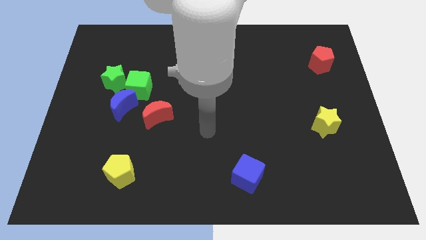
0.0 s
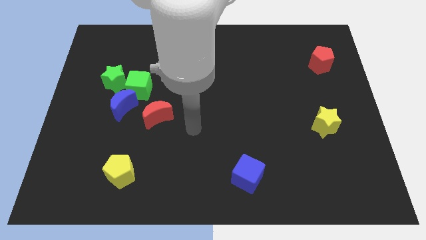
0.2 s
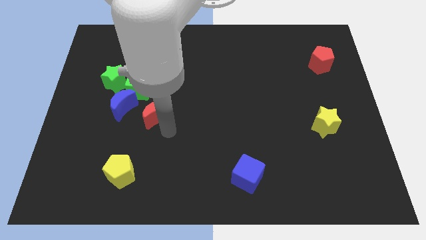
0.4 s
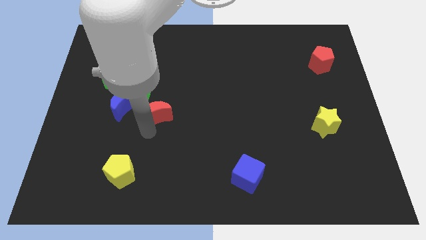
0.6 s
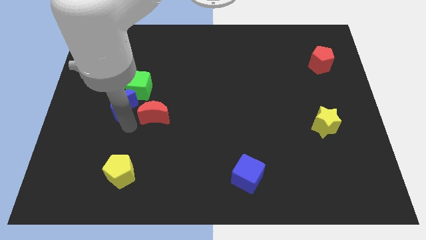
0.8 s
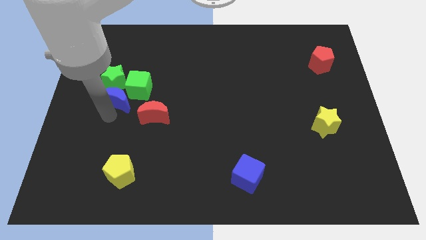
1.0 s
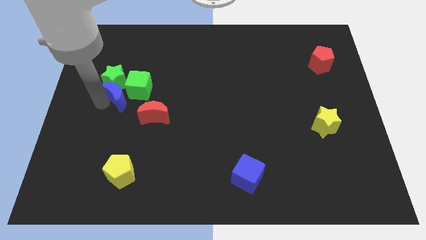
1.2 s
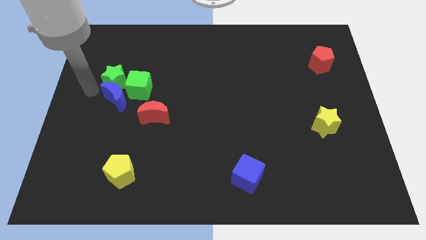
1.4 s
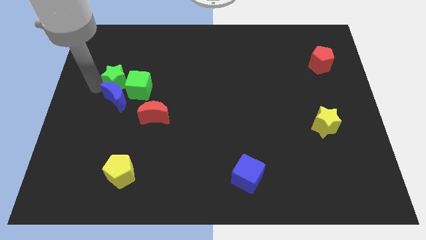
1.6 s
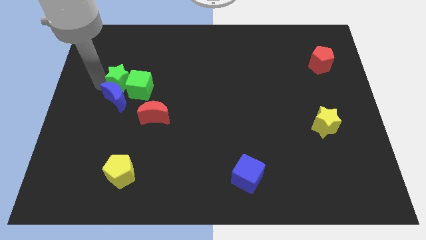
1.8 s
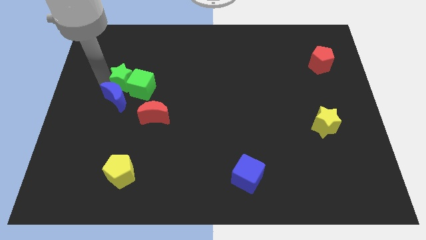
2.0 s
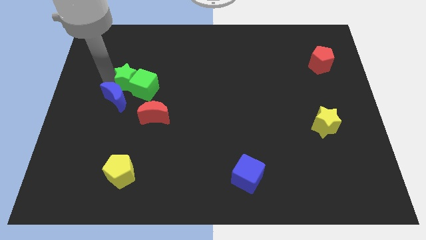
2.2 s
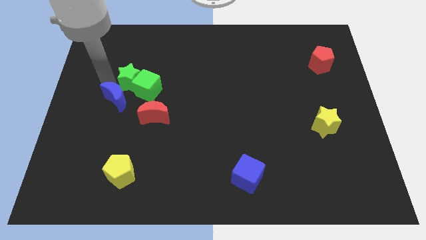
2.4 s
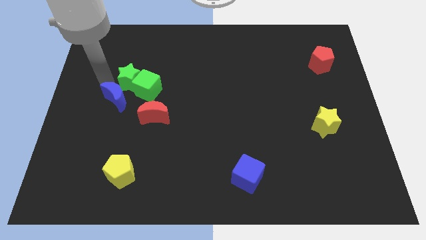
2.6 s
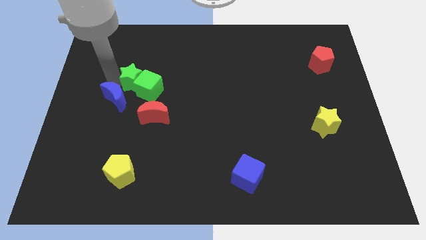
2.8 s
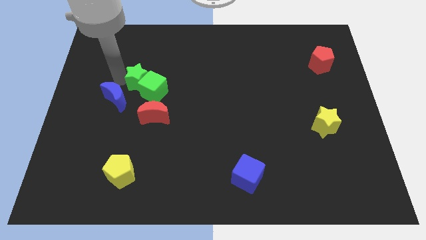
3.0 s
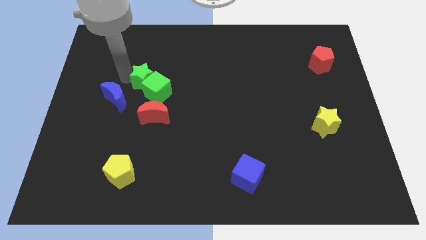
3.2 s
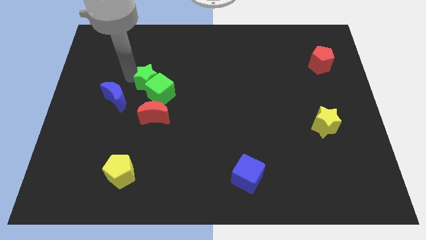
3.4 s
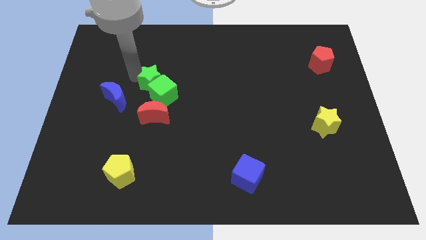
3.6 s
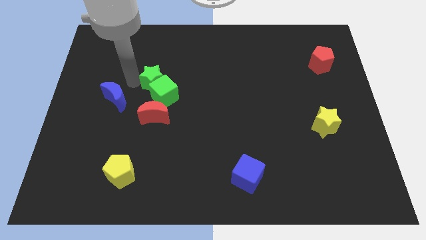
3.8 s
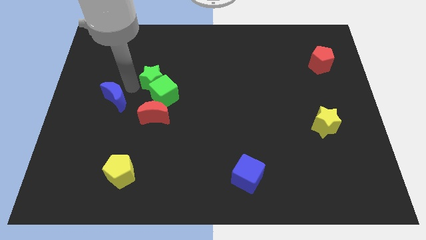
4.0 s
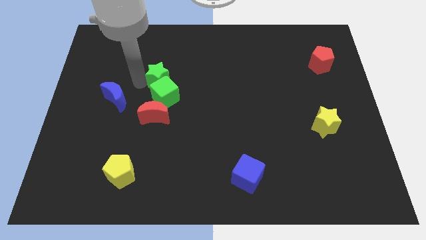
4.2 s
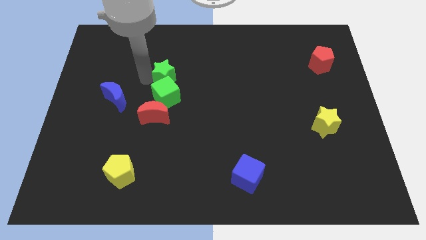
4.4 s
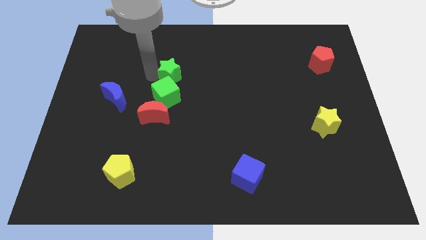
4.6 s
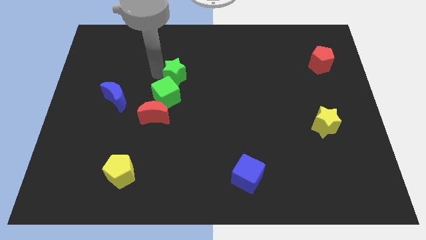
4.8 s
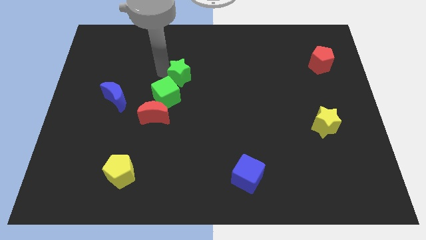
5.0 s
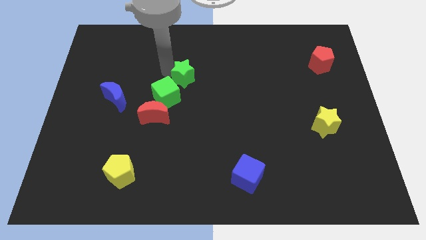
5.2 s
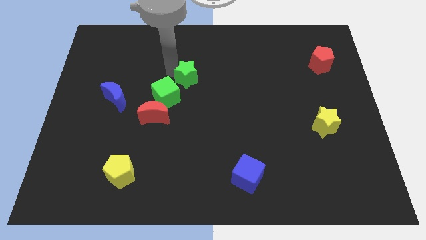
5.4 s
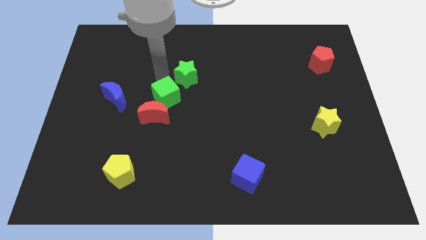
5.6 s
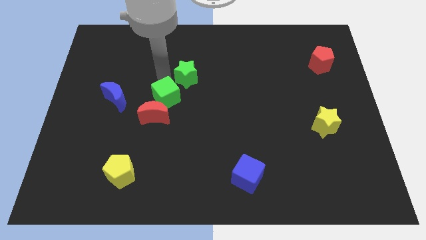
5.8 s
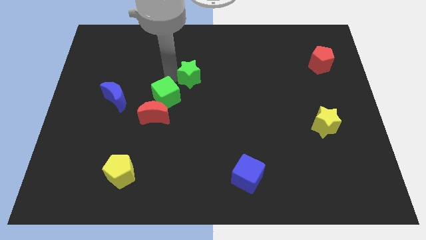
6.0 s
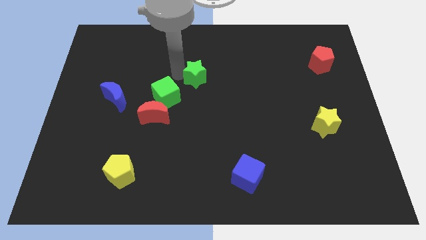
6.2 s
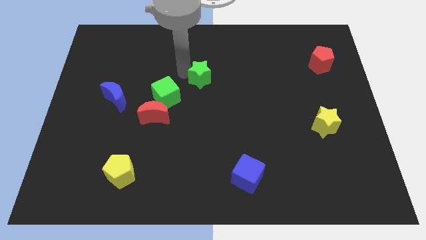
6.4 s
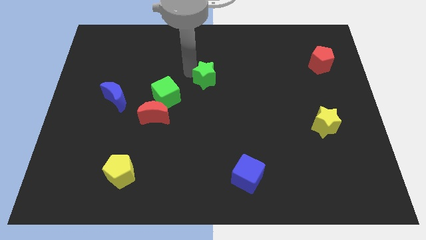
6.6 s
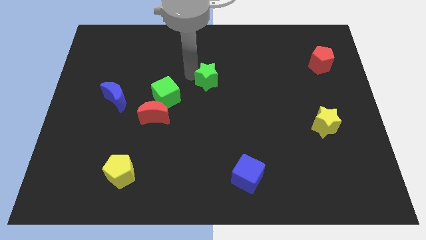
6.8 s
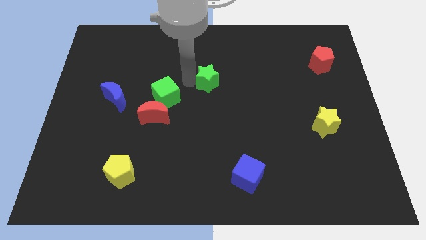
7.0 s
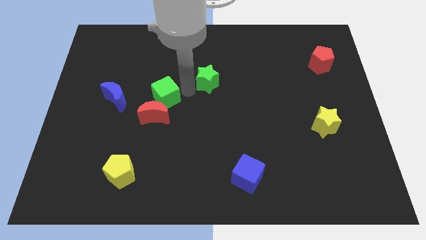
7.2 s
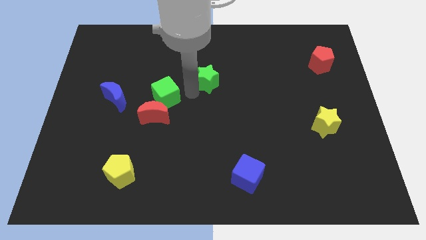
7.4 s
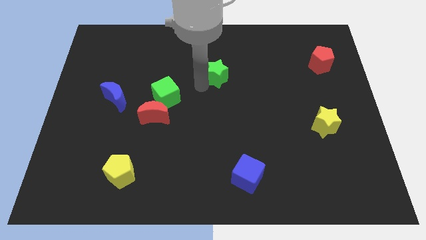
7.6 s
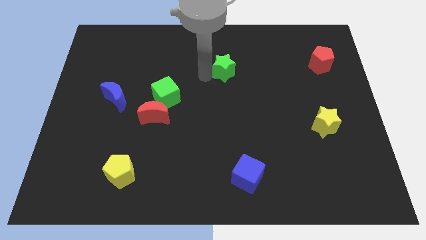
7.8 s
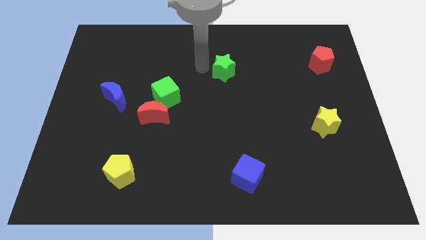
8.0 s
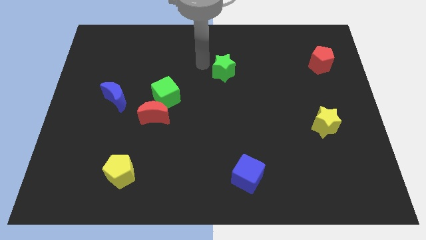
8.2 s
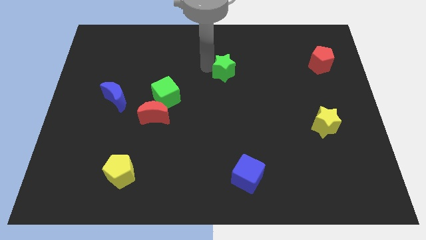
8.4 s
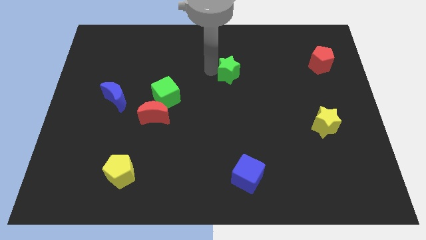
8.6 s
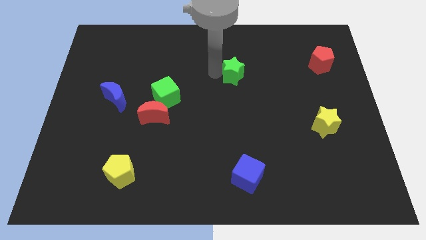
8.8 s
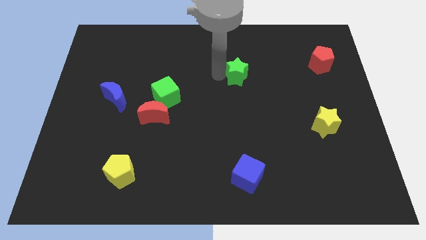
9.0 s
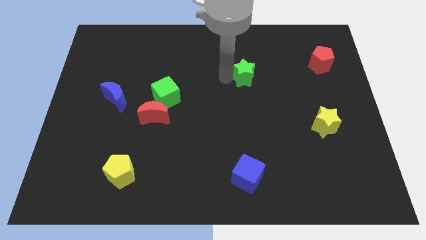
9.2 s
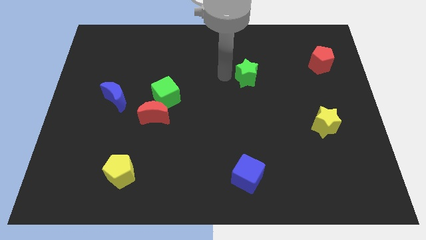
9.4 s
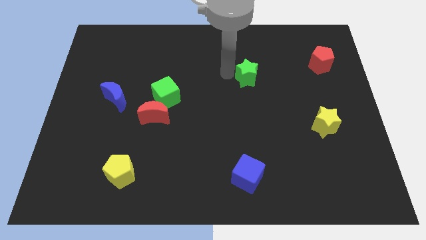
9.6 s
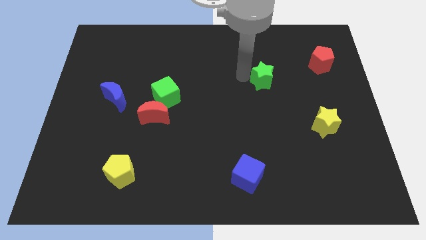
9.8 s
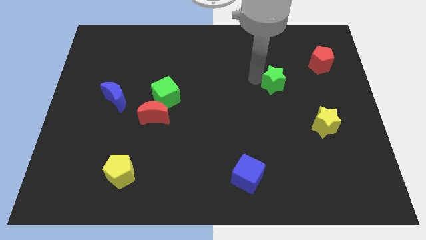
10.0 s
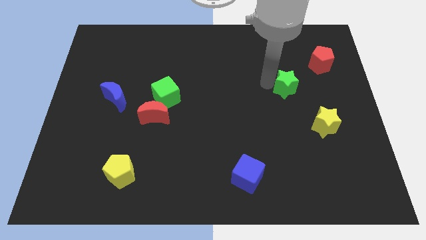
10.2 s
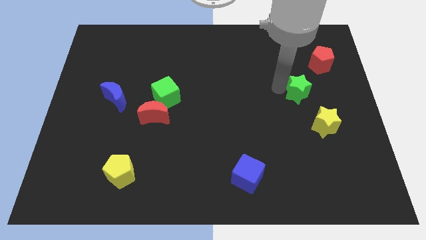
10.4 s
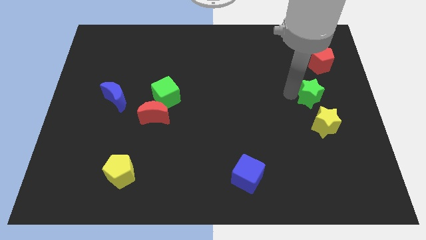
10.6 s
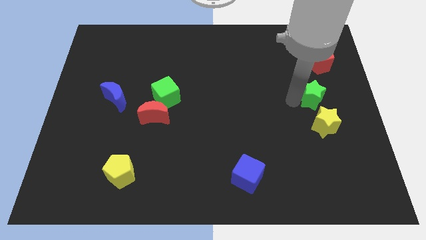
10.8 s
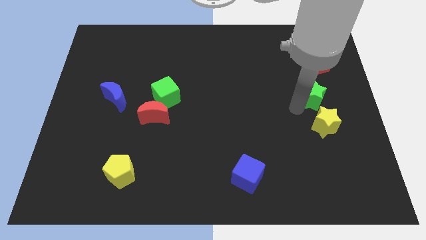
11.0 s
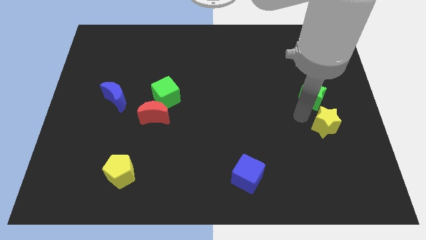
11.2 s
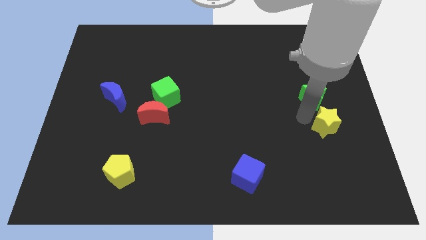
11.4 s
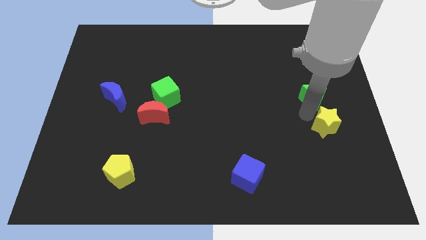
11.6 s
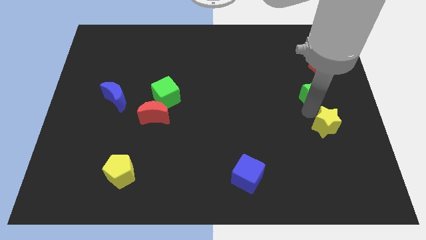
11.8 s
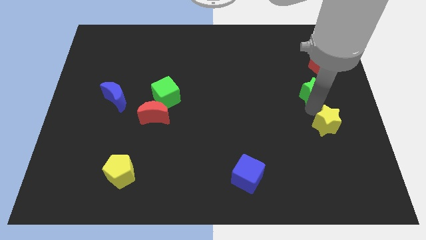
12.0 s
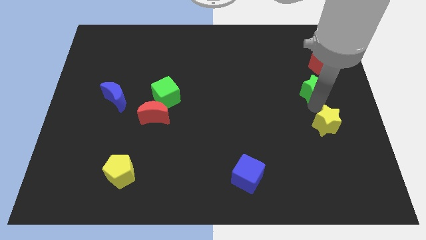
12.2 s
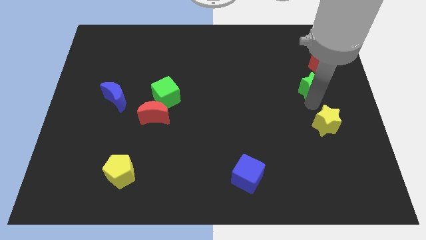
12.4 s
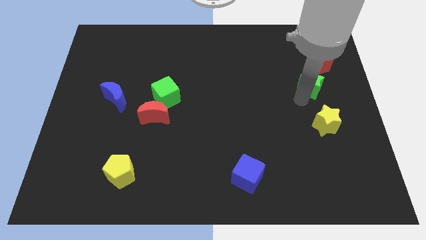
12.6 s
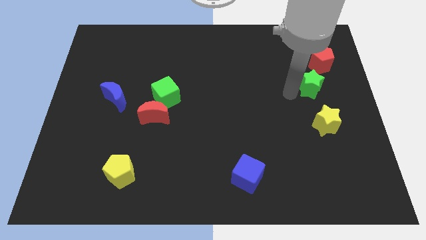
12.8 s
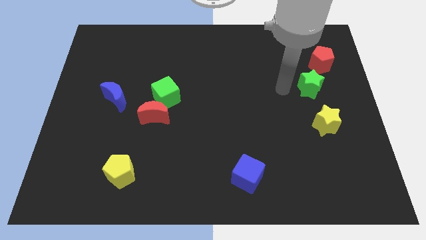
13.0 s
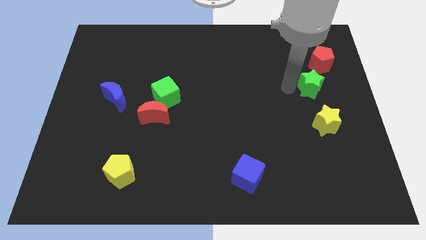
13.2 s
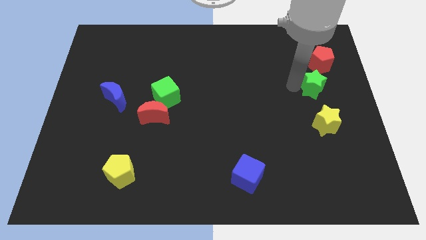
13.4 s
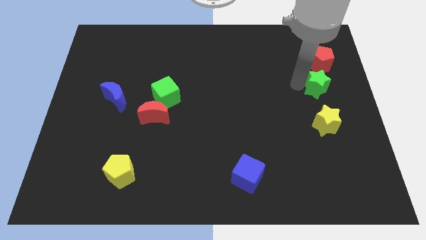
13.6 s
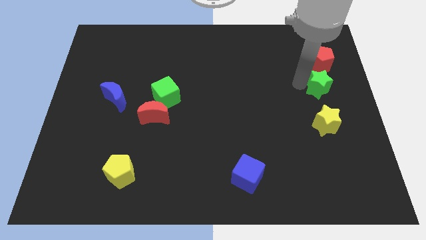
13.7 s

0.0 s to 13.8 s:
slide the green star to the right side
